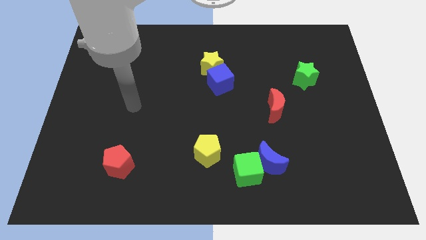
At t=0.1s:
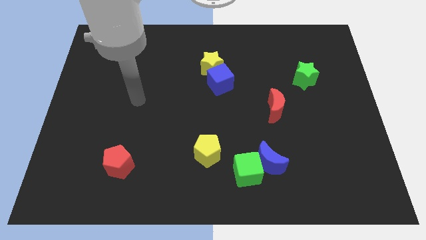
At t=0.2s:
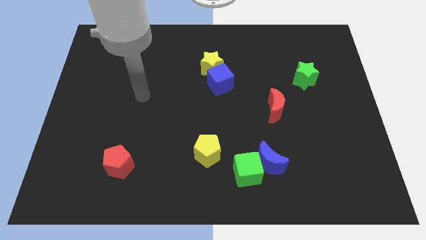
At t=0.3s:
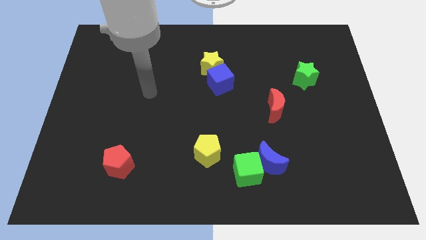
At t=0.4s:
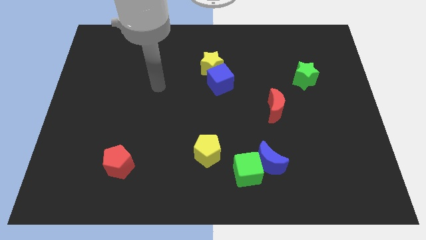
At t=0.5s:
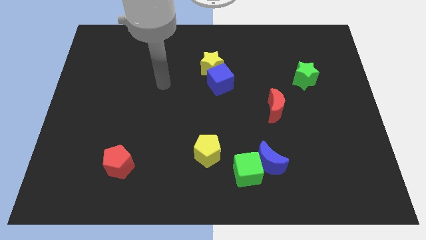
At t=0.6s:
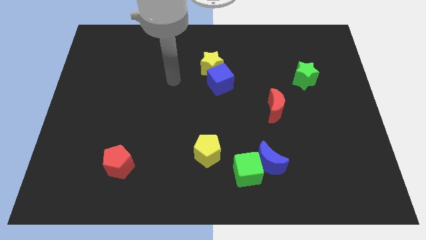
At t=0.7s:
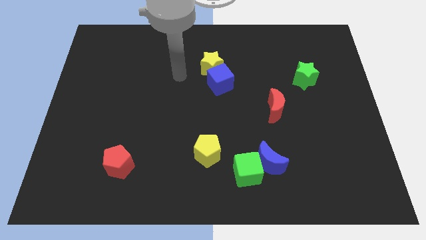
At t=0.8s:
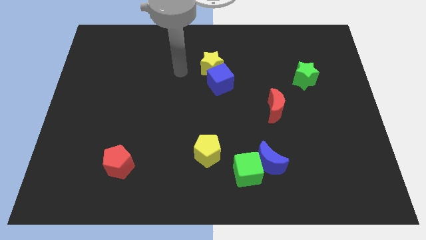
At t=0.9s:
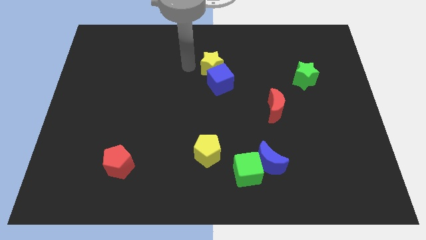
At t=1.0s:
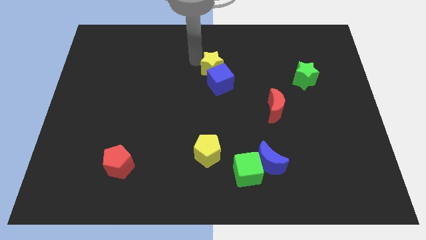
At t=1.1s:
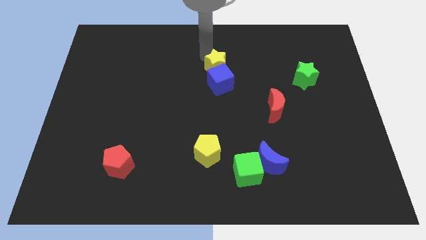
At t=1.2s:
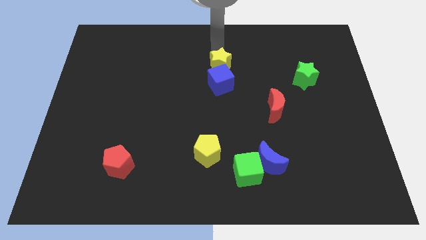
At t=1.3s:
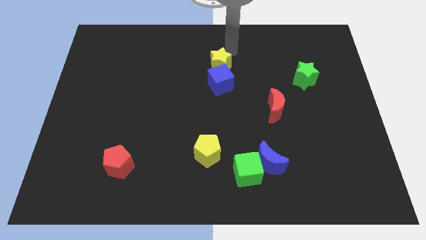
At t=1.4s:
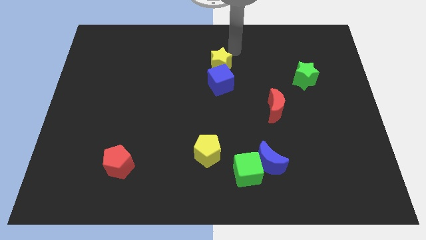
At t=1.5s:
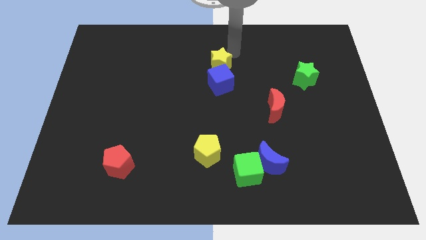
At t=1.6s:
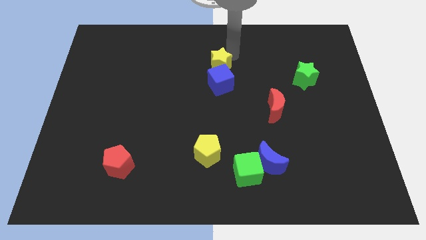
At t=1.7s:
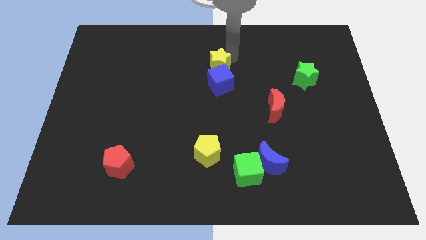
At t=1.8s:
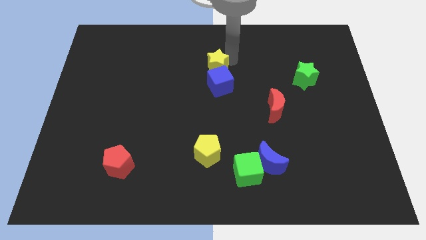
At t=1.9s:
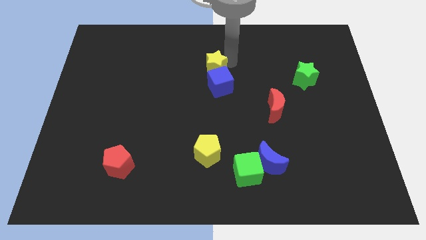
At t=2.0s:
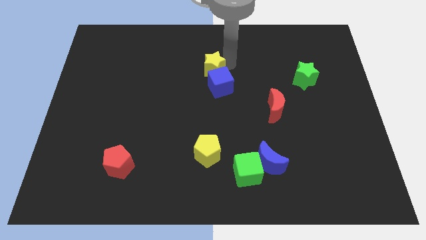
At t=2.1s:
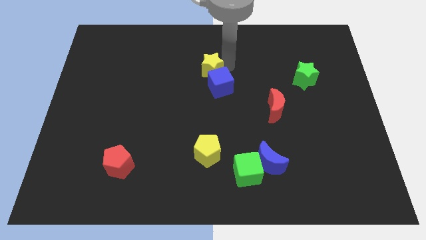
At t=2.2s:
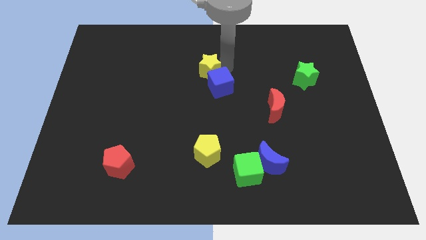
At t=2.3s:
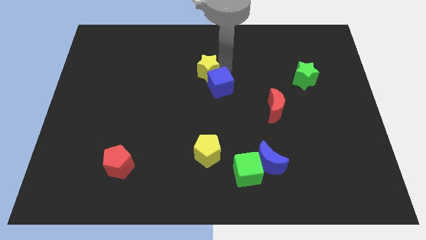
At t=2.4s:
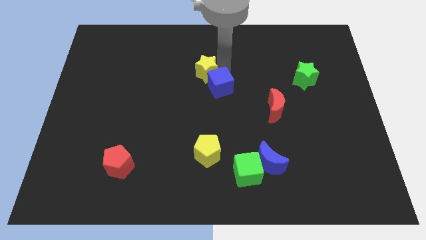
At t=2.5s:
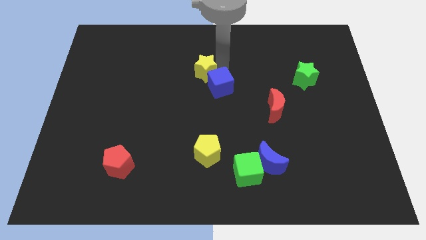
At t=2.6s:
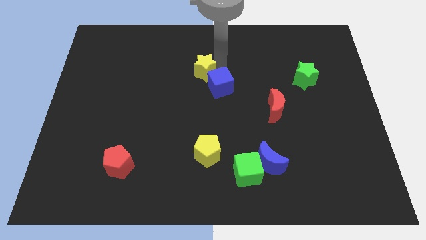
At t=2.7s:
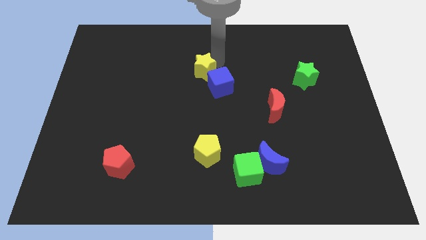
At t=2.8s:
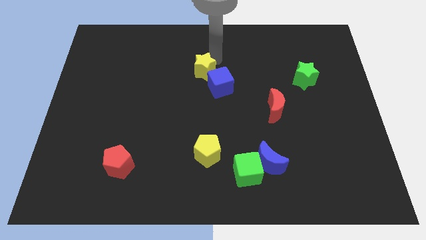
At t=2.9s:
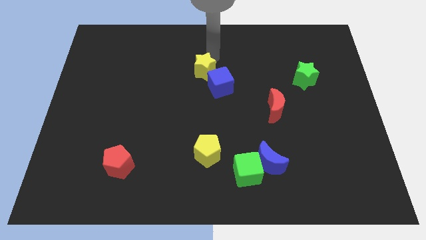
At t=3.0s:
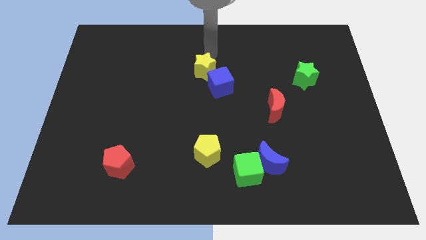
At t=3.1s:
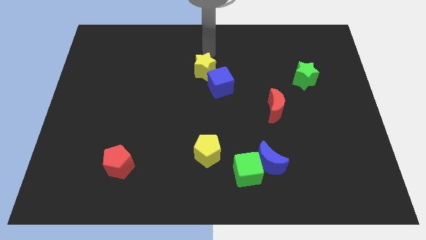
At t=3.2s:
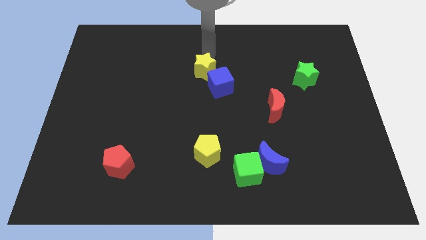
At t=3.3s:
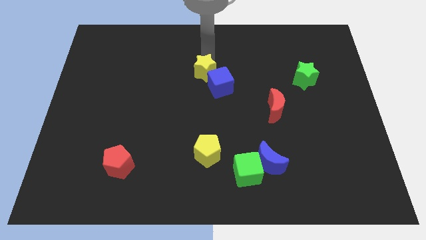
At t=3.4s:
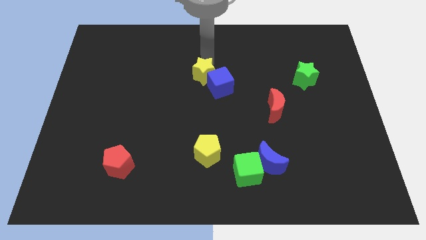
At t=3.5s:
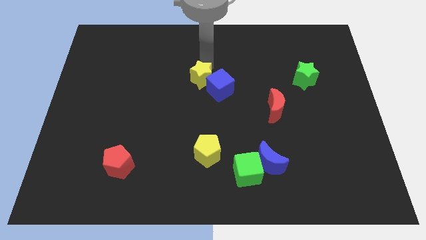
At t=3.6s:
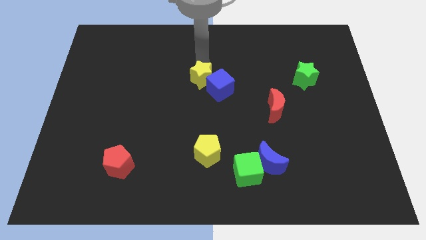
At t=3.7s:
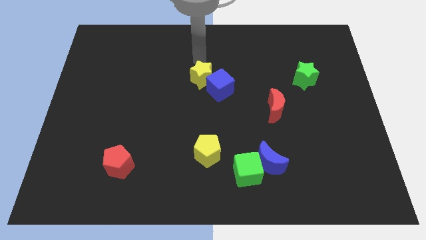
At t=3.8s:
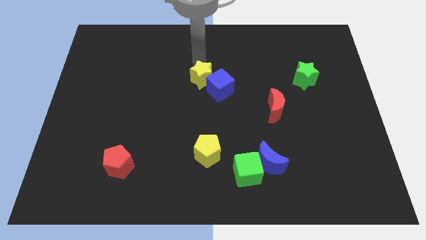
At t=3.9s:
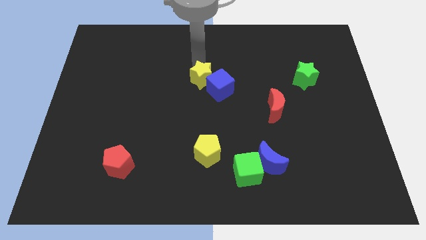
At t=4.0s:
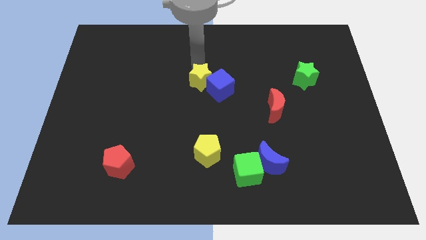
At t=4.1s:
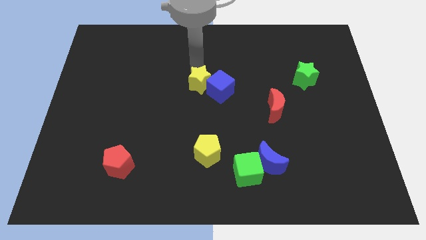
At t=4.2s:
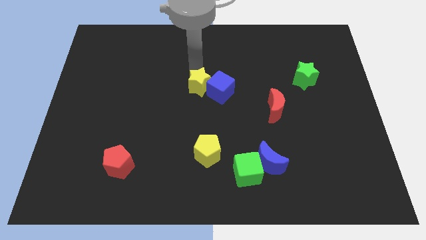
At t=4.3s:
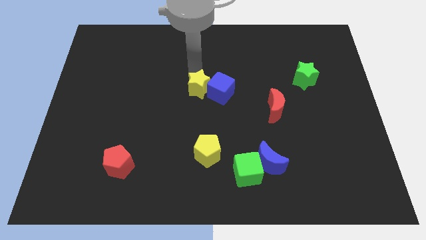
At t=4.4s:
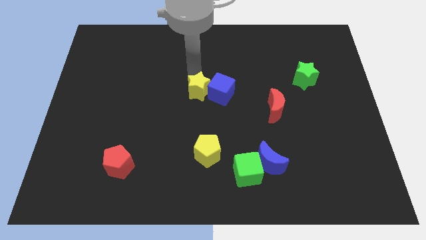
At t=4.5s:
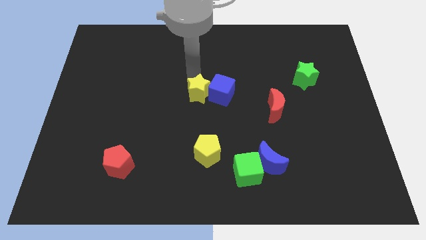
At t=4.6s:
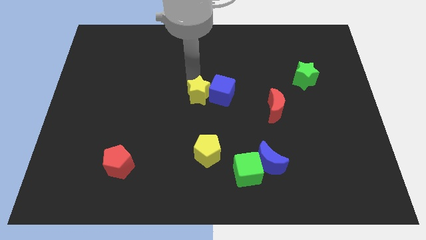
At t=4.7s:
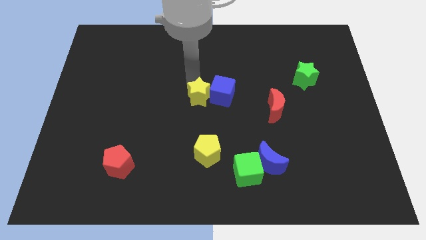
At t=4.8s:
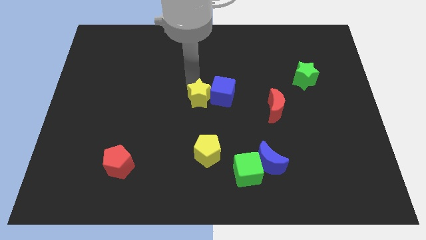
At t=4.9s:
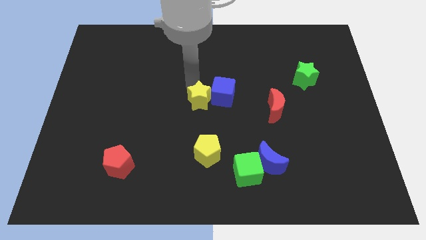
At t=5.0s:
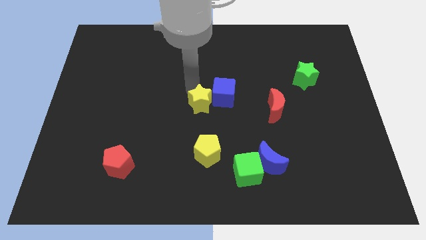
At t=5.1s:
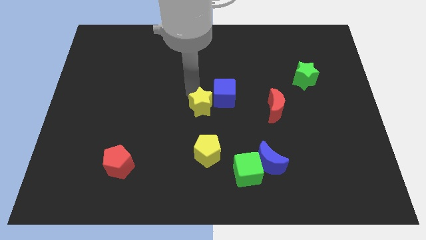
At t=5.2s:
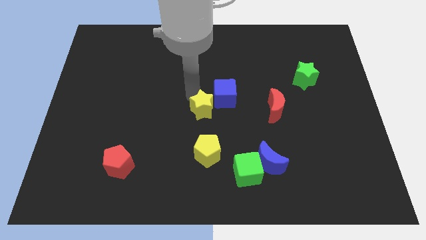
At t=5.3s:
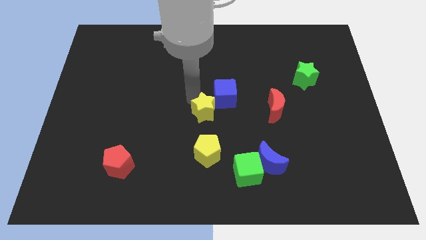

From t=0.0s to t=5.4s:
push the yellow star to the bottom side of the blue cube

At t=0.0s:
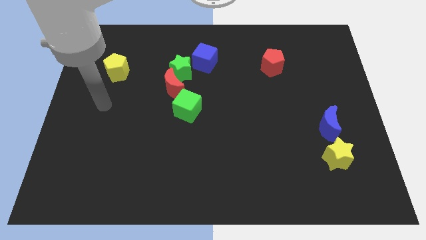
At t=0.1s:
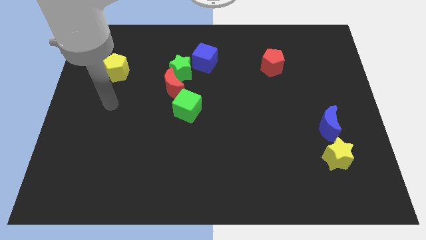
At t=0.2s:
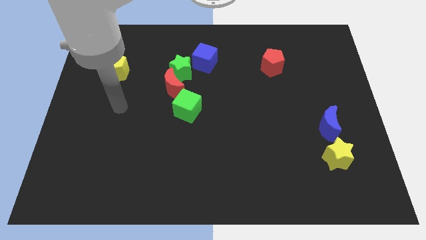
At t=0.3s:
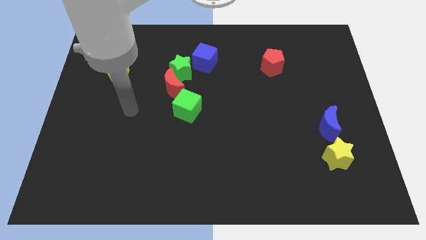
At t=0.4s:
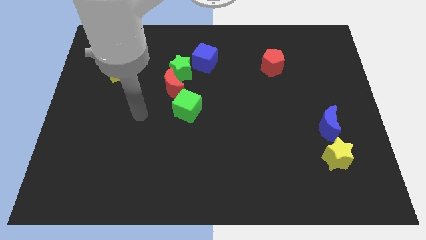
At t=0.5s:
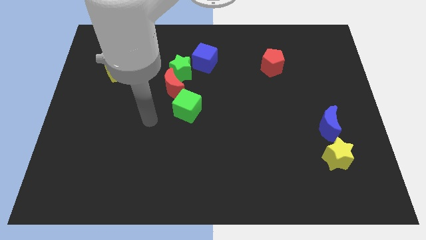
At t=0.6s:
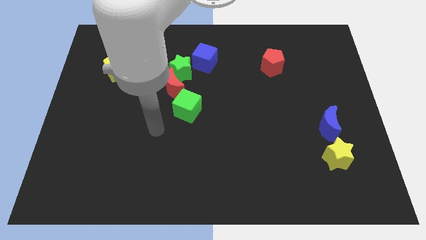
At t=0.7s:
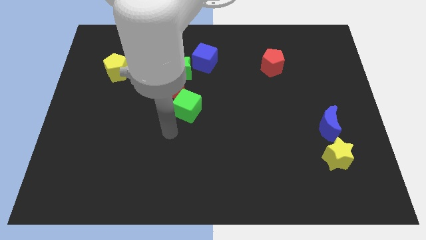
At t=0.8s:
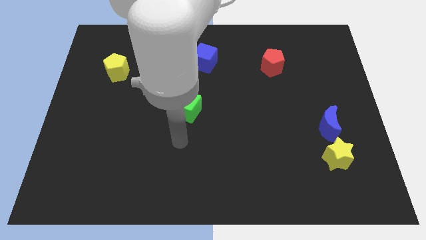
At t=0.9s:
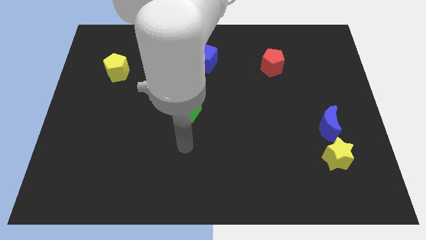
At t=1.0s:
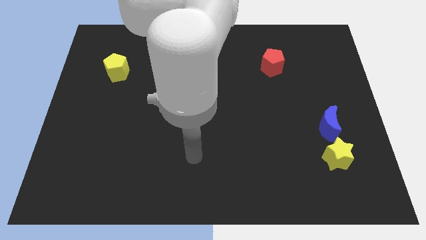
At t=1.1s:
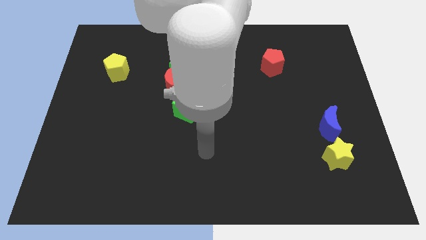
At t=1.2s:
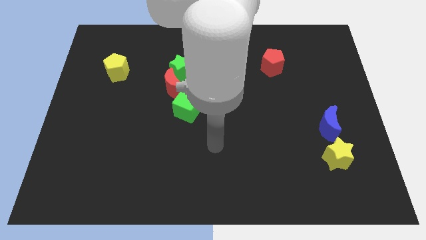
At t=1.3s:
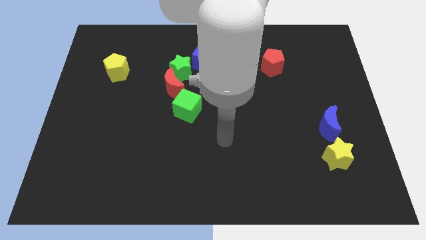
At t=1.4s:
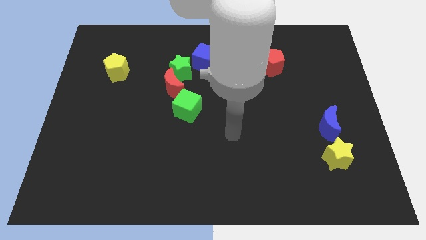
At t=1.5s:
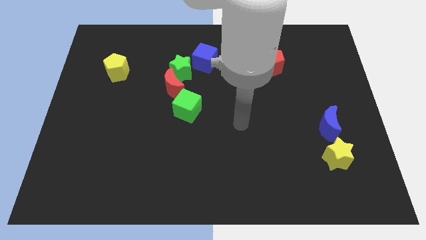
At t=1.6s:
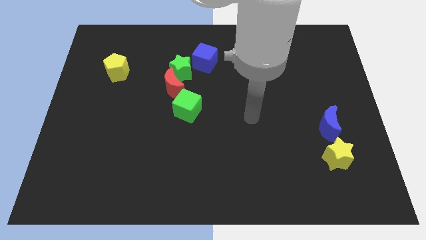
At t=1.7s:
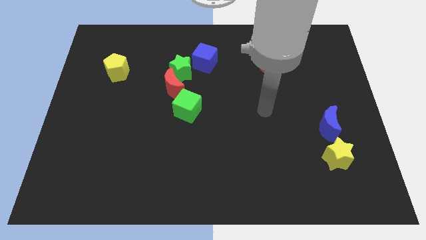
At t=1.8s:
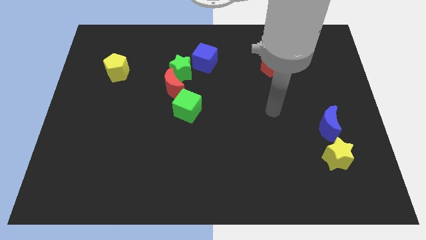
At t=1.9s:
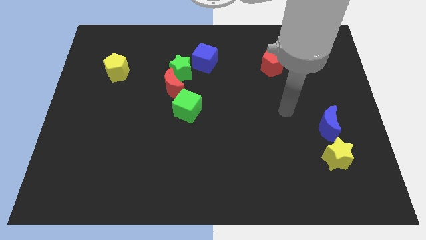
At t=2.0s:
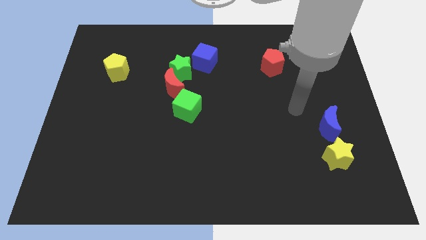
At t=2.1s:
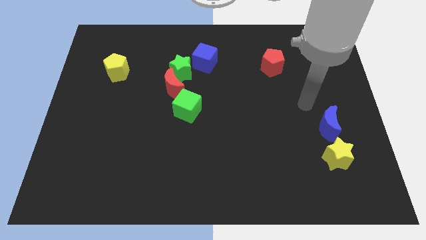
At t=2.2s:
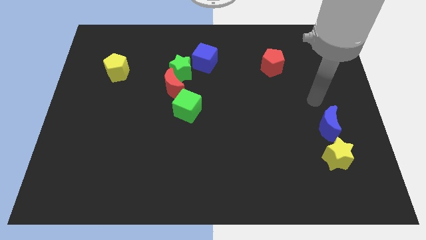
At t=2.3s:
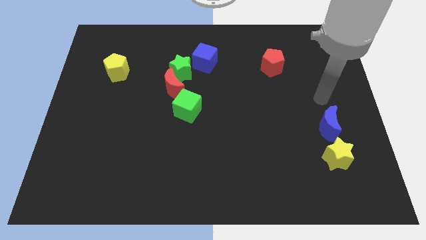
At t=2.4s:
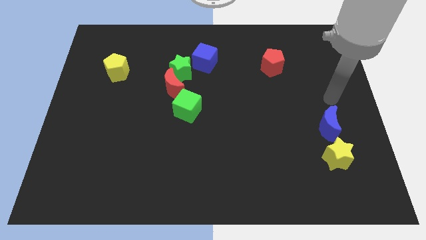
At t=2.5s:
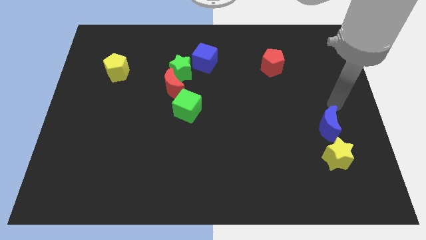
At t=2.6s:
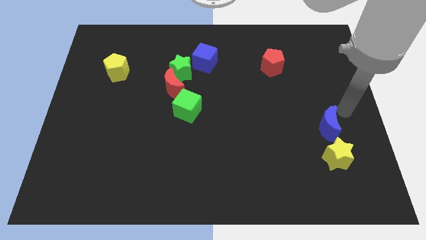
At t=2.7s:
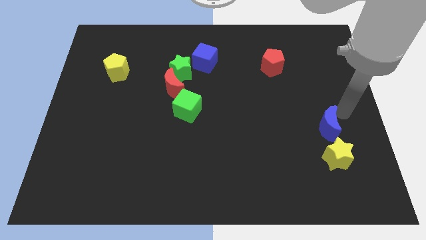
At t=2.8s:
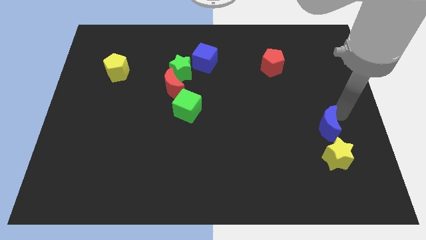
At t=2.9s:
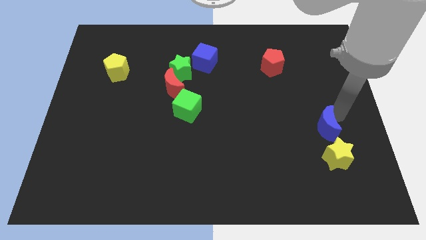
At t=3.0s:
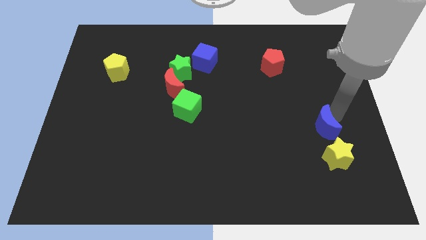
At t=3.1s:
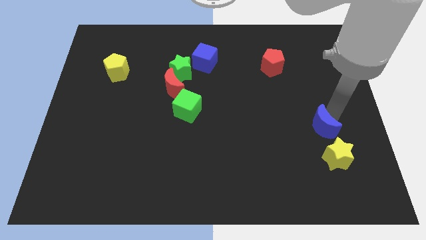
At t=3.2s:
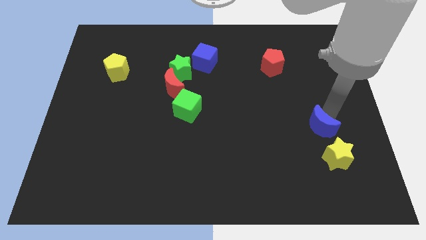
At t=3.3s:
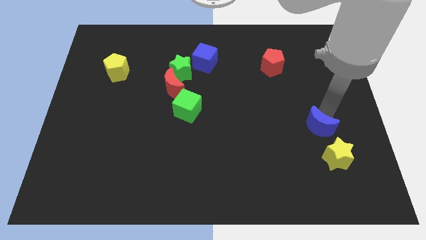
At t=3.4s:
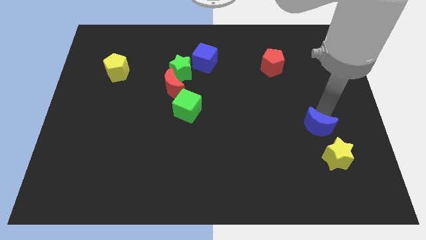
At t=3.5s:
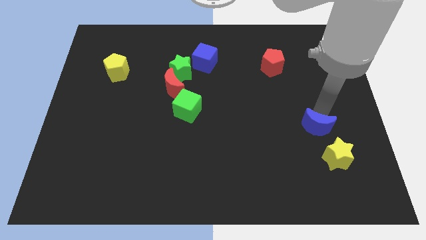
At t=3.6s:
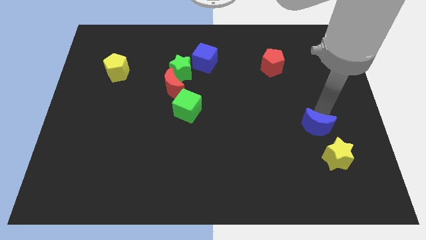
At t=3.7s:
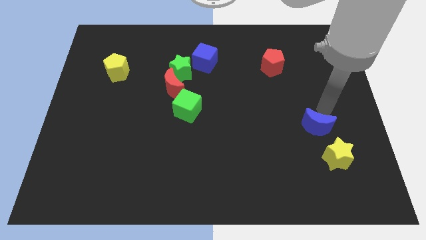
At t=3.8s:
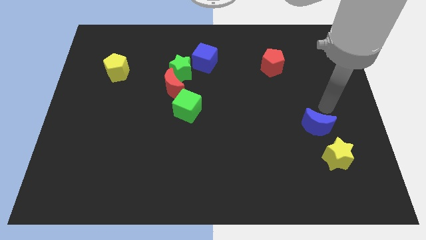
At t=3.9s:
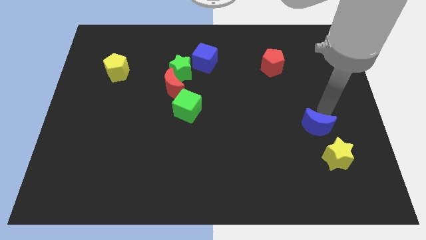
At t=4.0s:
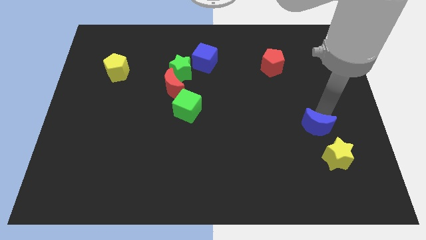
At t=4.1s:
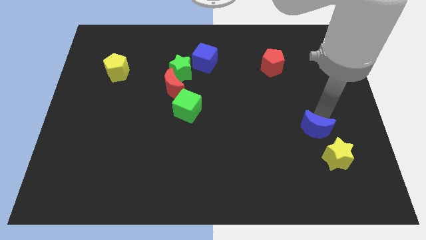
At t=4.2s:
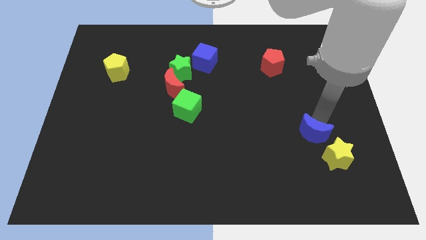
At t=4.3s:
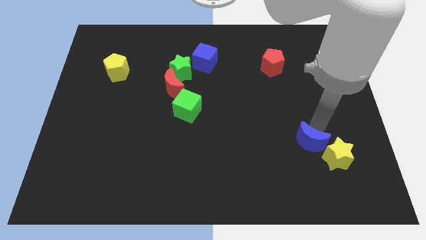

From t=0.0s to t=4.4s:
push the blue moon to the left side of the yellow star
